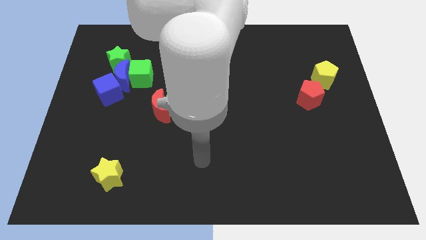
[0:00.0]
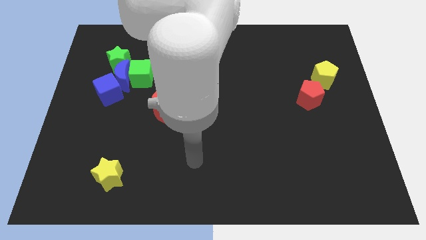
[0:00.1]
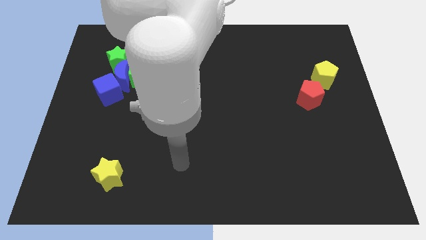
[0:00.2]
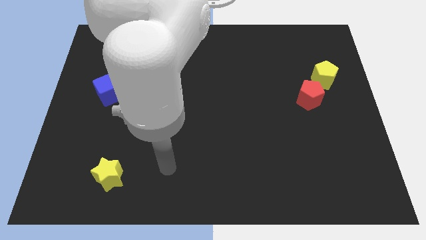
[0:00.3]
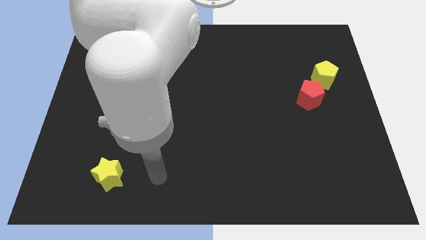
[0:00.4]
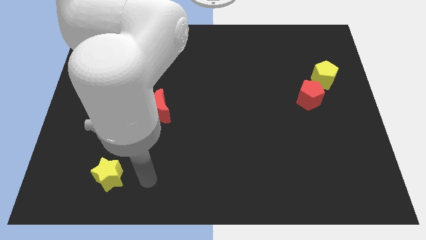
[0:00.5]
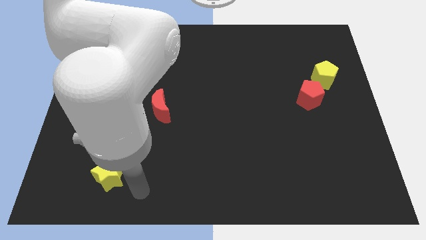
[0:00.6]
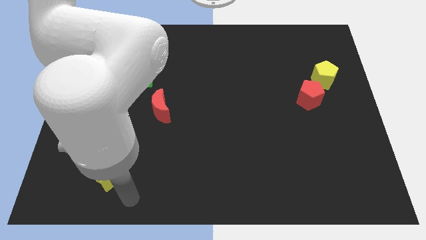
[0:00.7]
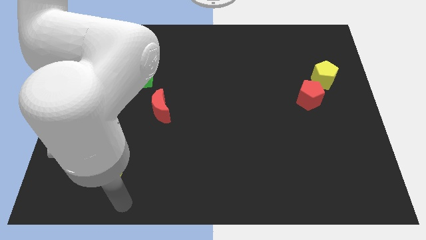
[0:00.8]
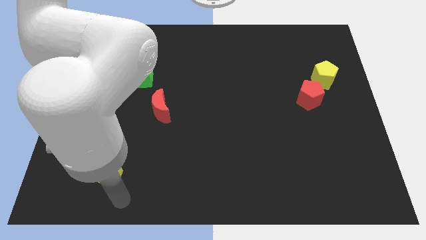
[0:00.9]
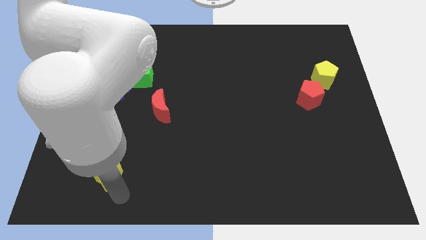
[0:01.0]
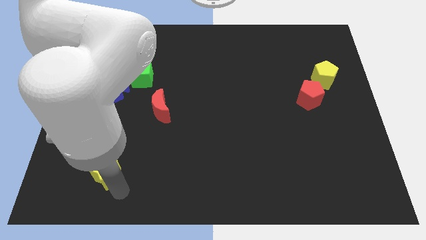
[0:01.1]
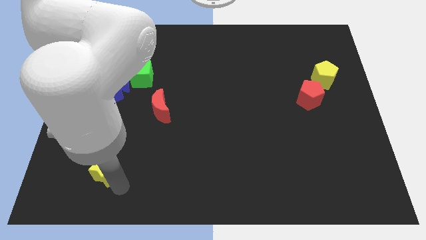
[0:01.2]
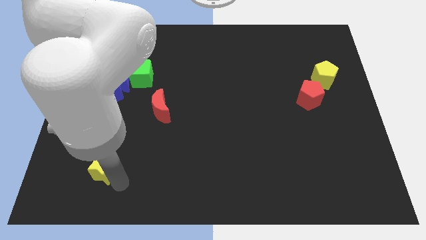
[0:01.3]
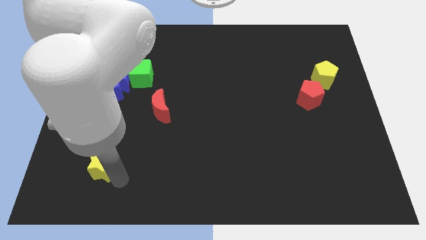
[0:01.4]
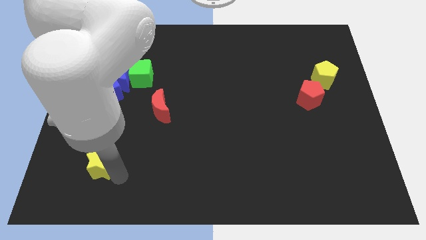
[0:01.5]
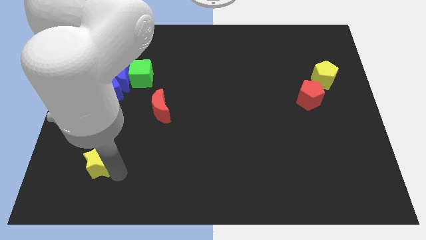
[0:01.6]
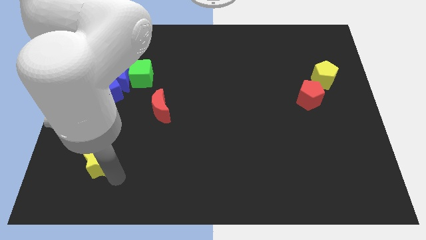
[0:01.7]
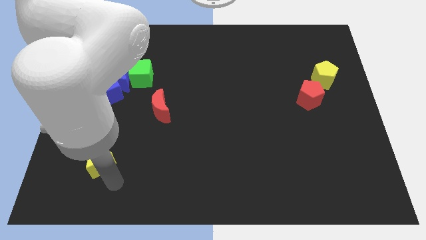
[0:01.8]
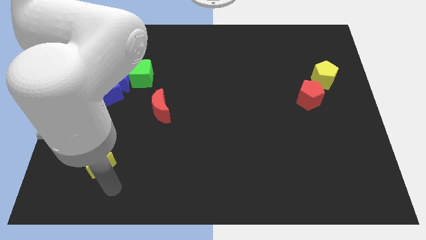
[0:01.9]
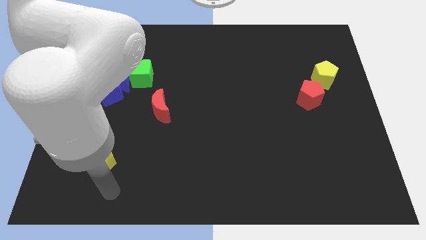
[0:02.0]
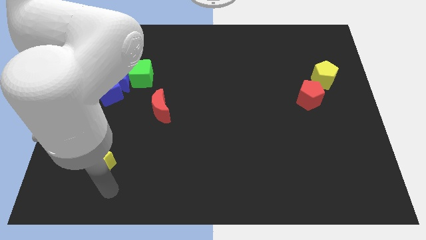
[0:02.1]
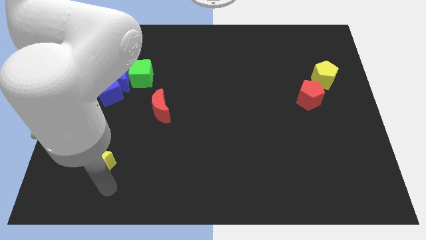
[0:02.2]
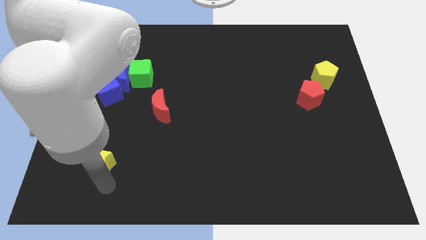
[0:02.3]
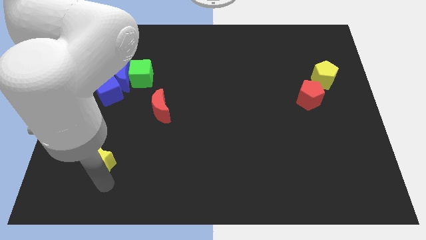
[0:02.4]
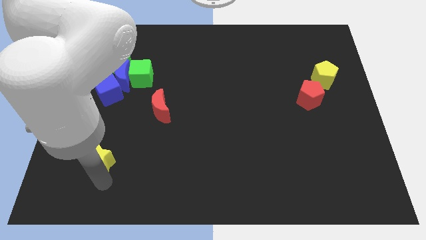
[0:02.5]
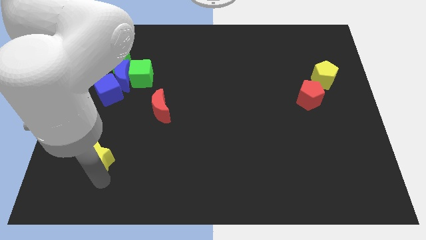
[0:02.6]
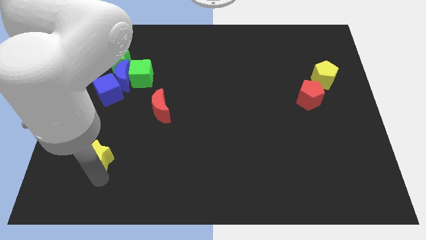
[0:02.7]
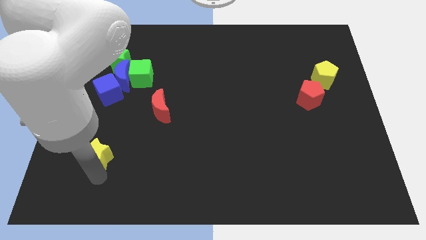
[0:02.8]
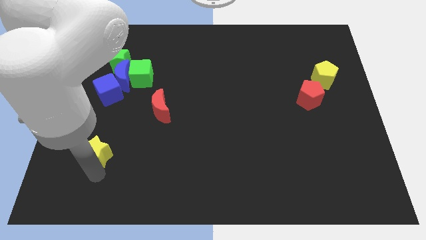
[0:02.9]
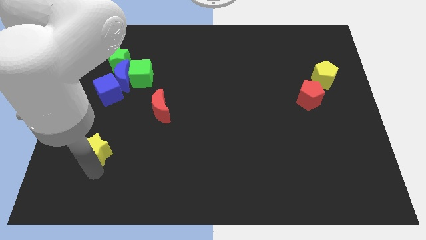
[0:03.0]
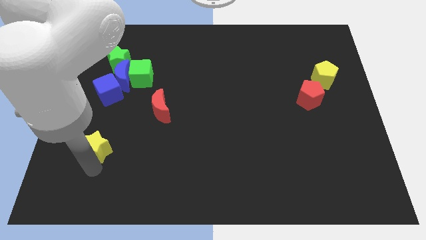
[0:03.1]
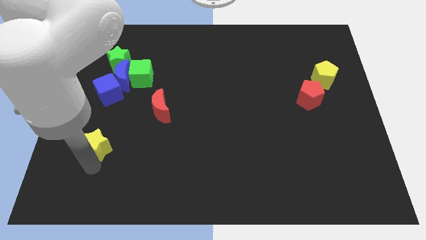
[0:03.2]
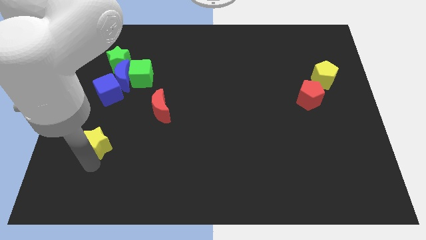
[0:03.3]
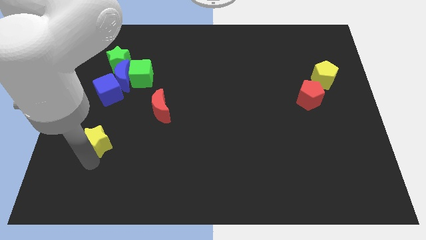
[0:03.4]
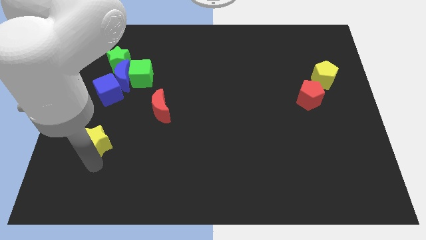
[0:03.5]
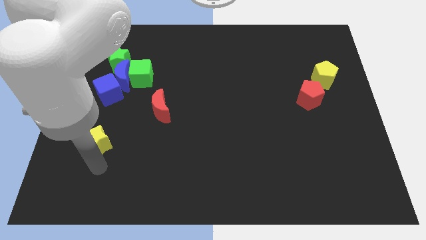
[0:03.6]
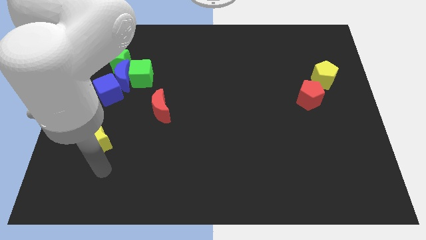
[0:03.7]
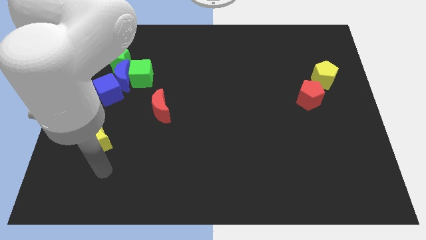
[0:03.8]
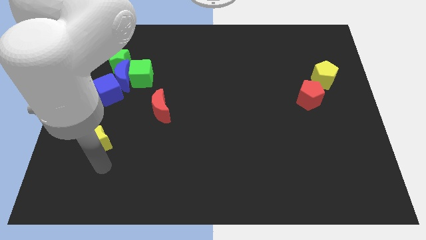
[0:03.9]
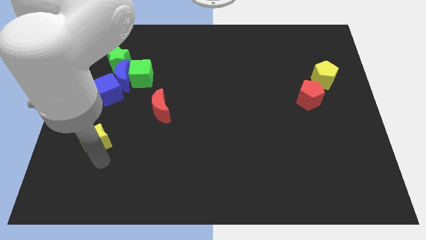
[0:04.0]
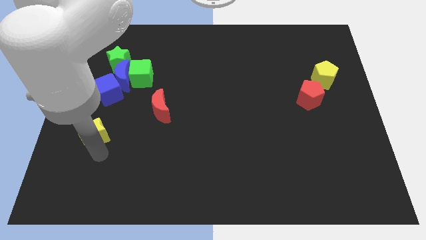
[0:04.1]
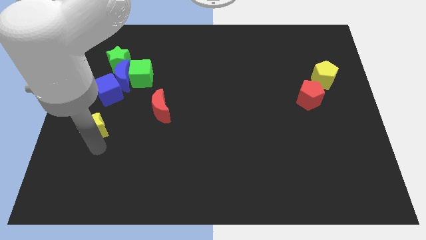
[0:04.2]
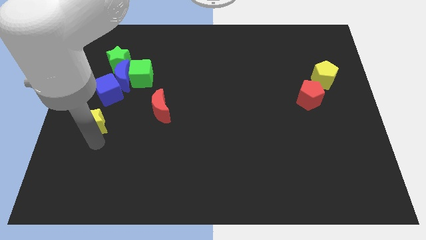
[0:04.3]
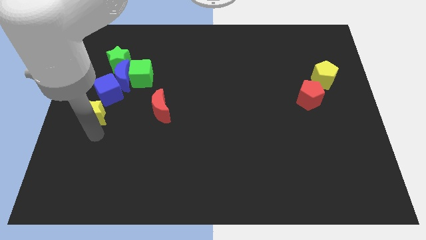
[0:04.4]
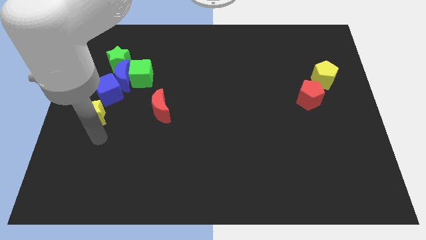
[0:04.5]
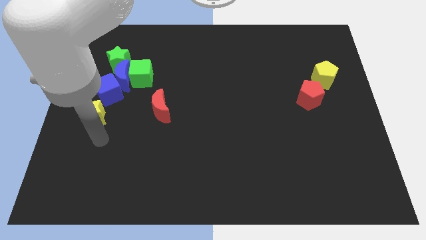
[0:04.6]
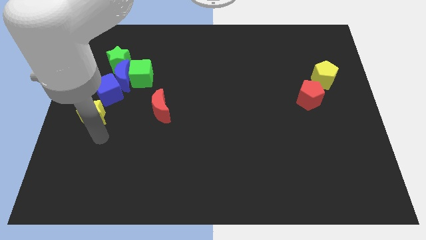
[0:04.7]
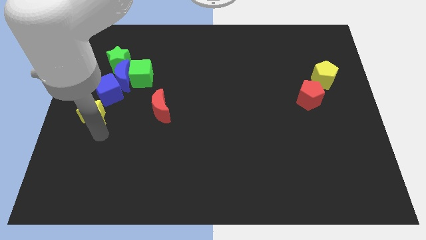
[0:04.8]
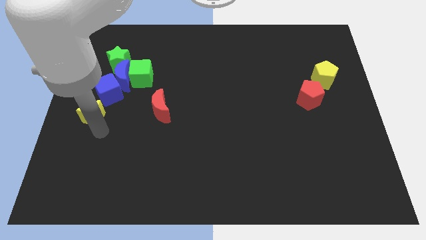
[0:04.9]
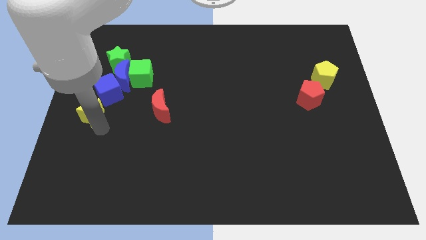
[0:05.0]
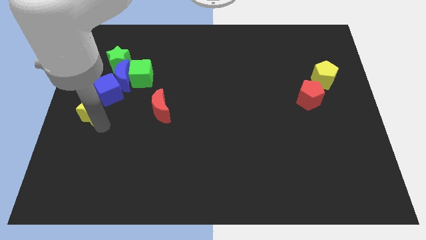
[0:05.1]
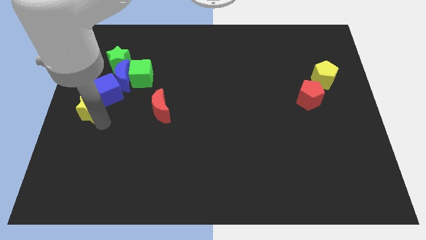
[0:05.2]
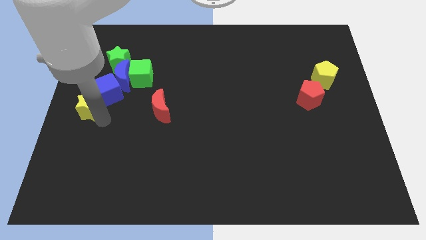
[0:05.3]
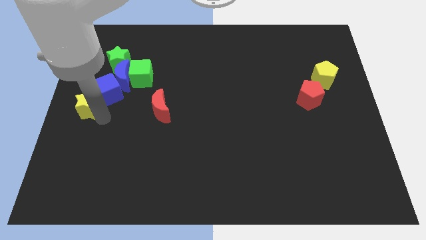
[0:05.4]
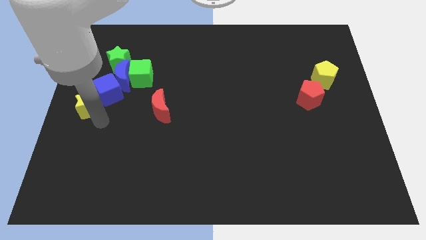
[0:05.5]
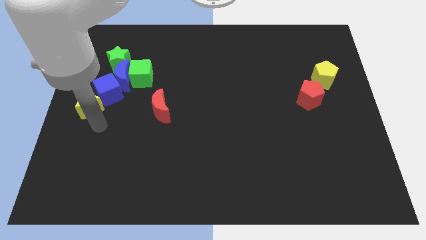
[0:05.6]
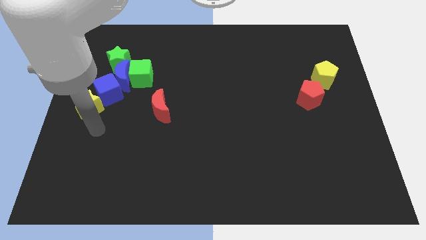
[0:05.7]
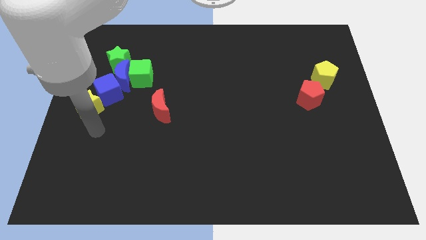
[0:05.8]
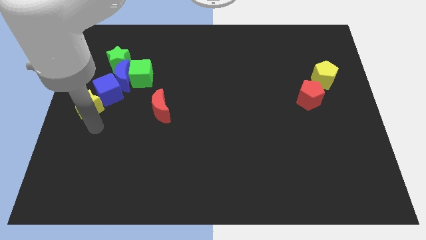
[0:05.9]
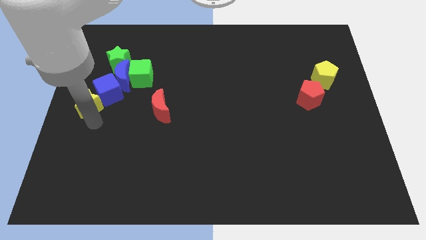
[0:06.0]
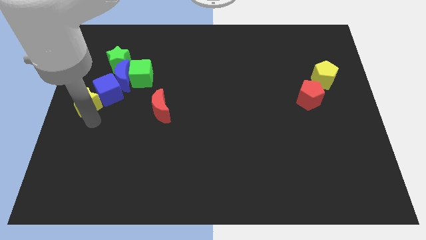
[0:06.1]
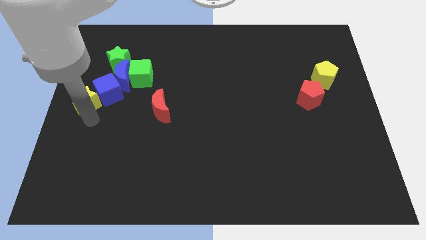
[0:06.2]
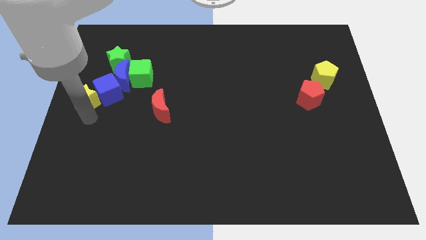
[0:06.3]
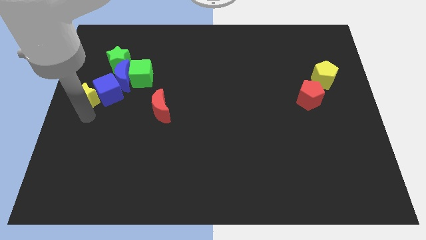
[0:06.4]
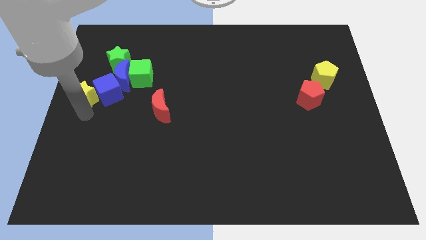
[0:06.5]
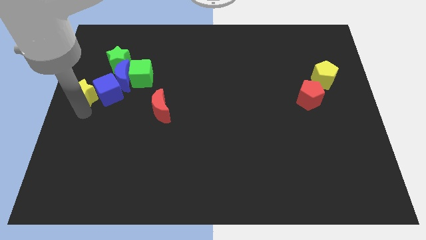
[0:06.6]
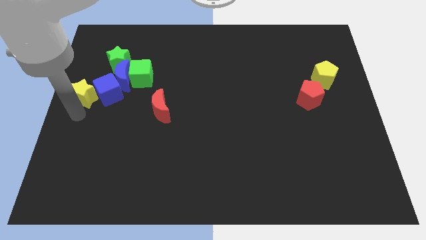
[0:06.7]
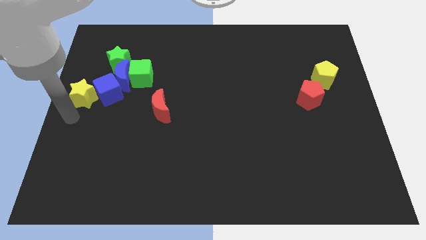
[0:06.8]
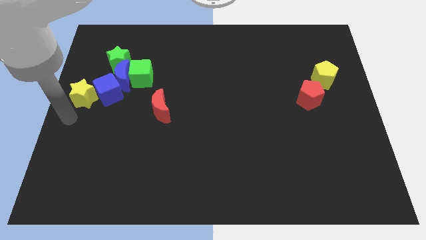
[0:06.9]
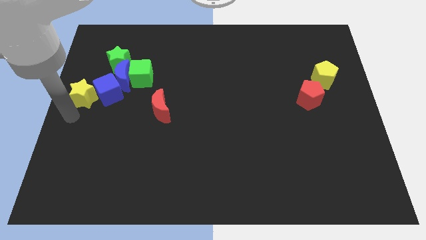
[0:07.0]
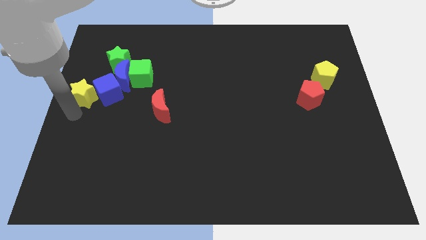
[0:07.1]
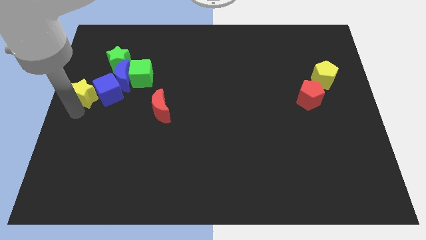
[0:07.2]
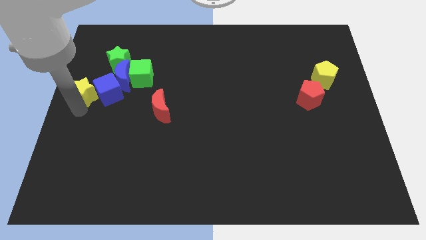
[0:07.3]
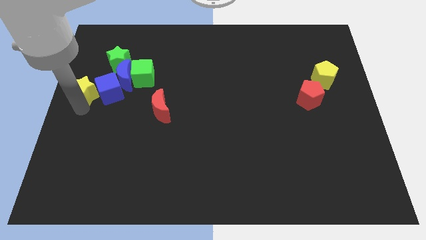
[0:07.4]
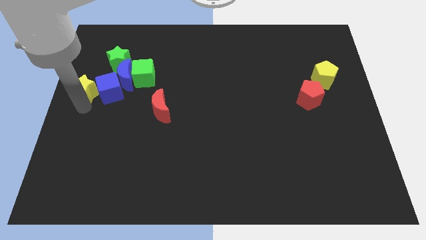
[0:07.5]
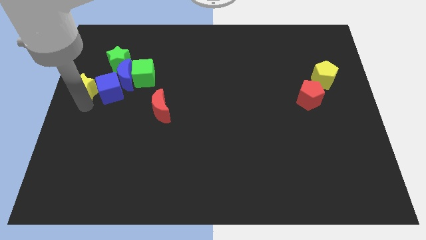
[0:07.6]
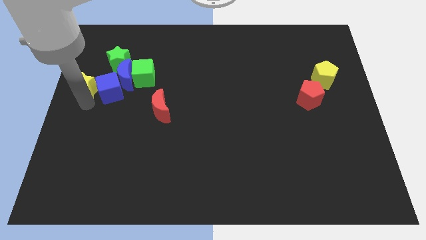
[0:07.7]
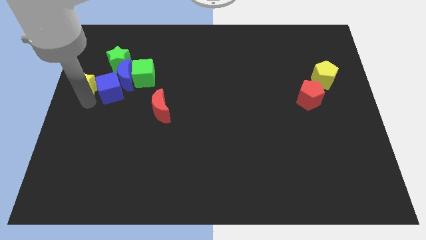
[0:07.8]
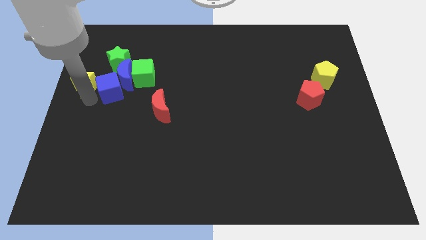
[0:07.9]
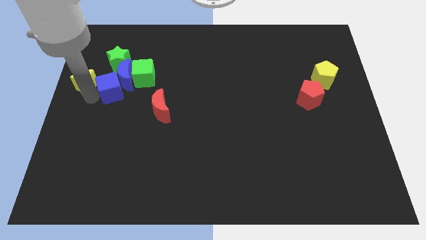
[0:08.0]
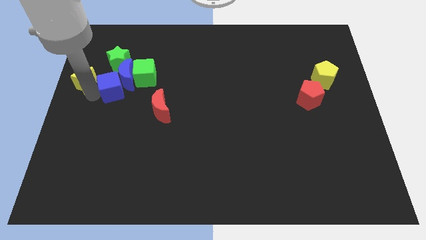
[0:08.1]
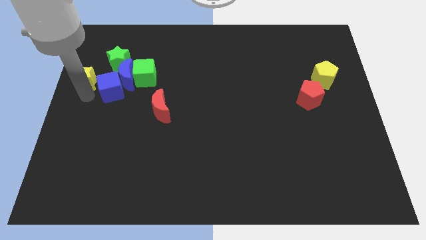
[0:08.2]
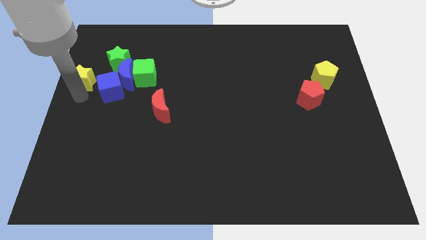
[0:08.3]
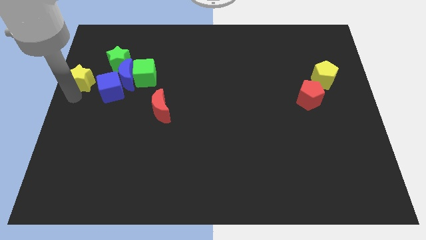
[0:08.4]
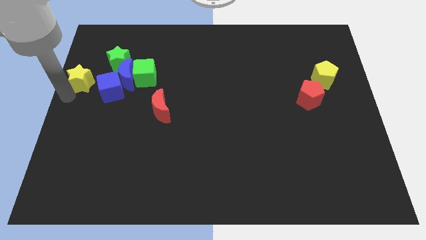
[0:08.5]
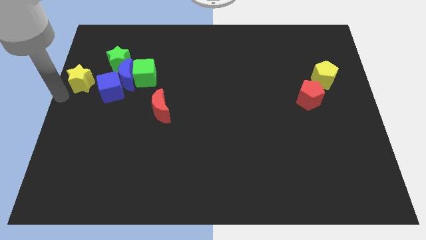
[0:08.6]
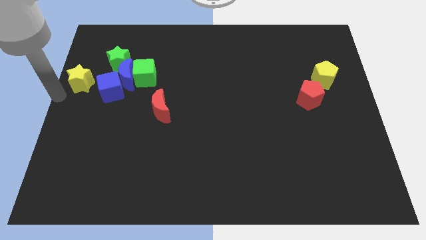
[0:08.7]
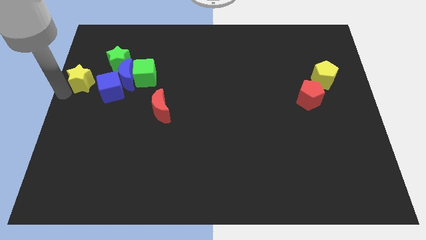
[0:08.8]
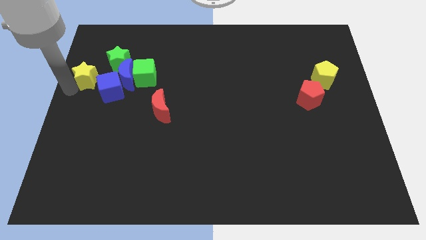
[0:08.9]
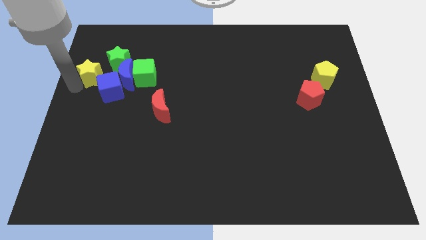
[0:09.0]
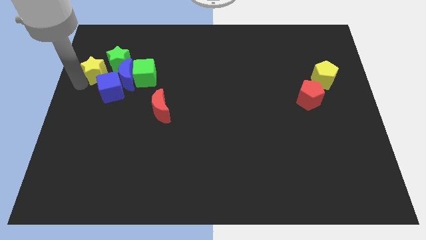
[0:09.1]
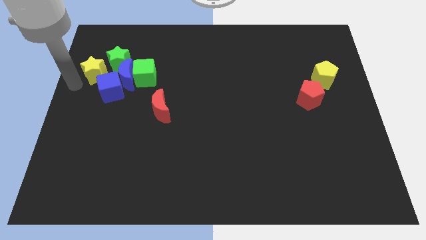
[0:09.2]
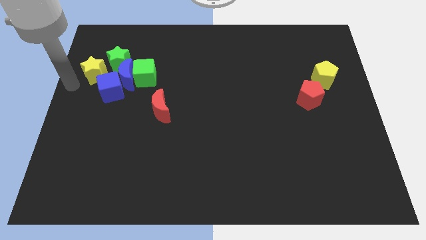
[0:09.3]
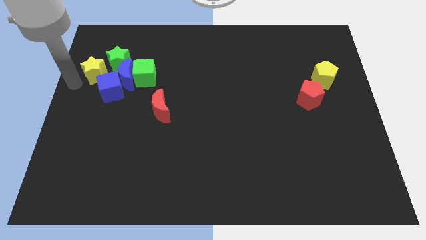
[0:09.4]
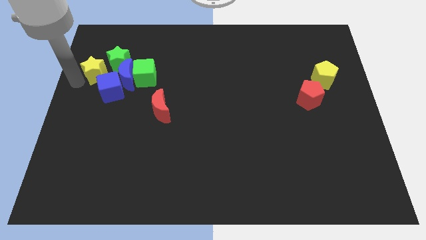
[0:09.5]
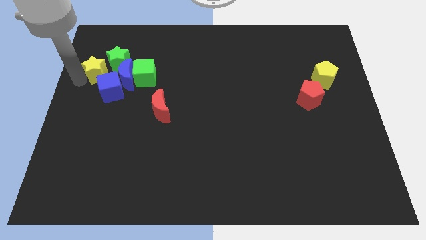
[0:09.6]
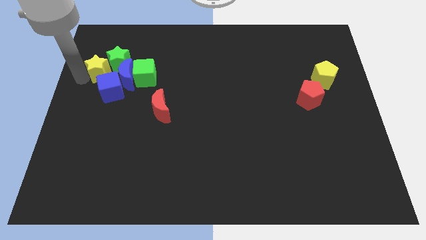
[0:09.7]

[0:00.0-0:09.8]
put the yellow star to the green star
